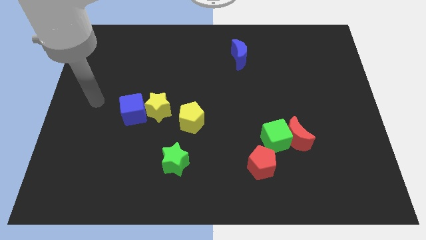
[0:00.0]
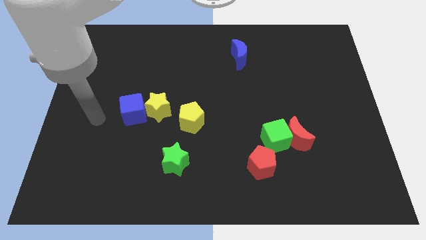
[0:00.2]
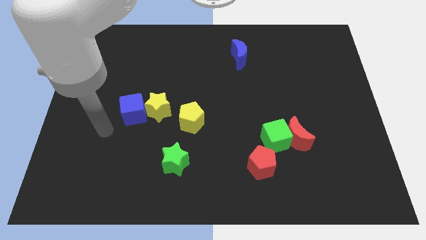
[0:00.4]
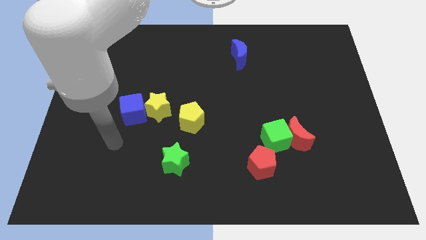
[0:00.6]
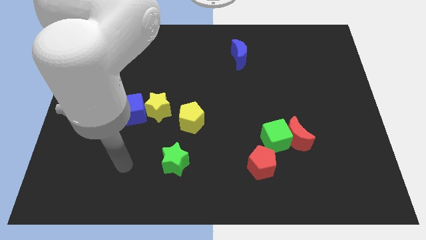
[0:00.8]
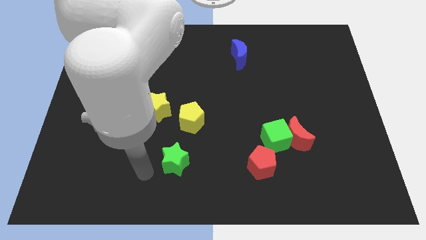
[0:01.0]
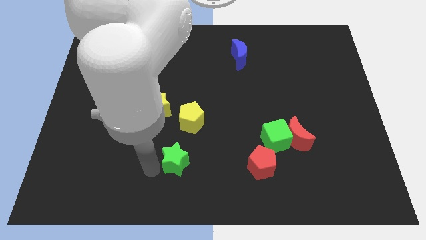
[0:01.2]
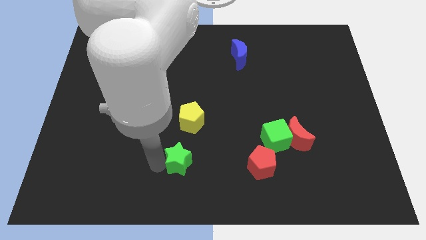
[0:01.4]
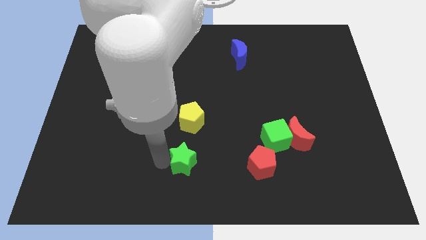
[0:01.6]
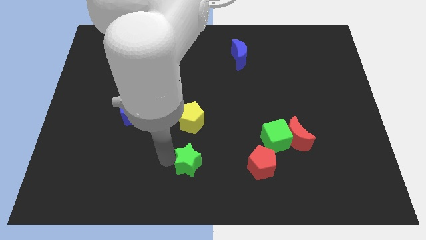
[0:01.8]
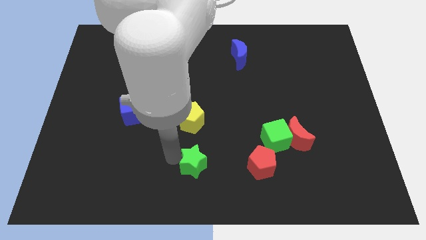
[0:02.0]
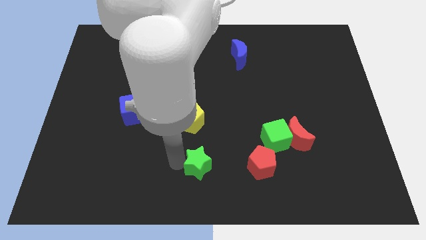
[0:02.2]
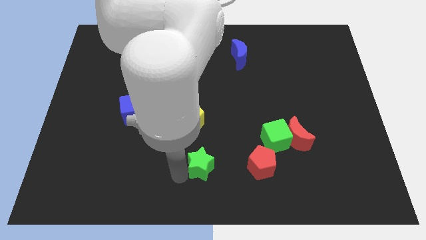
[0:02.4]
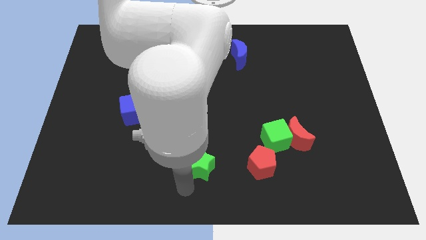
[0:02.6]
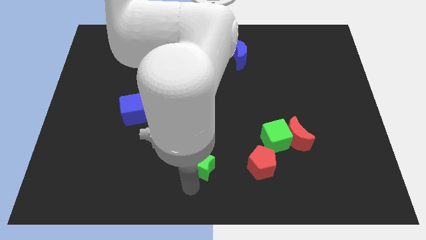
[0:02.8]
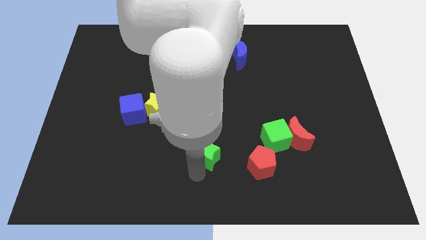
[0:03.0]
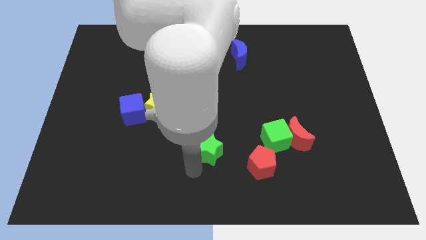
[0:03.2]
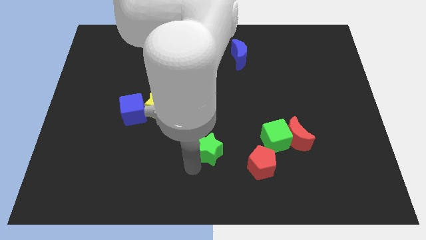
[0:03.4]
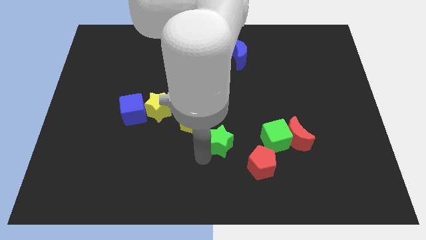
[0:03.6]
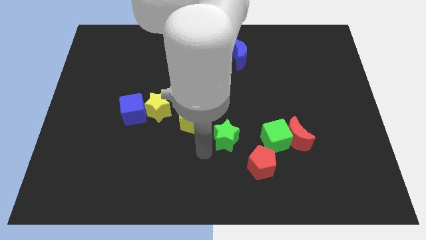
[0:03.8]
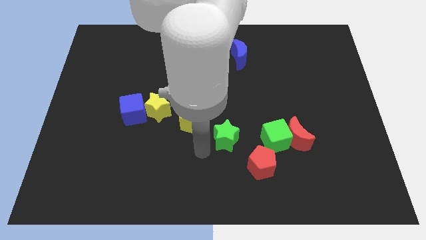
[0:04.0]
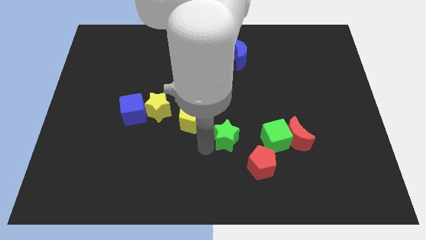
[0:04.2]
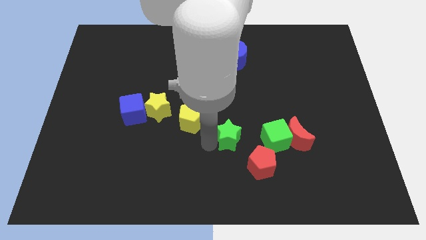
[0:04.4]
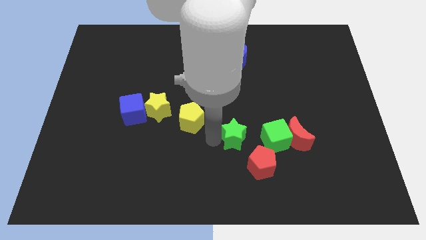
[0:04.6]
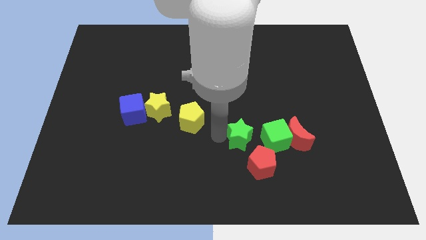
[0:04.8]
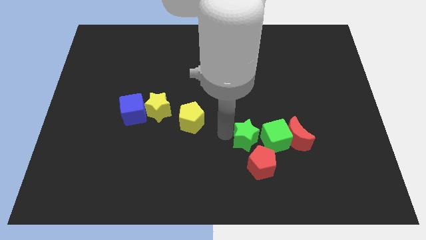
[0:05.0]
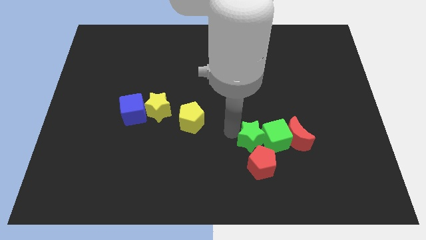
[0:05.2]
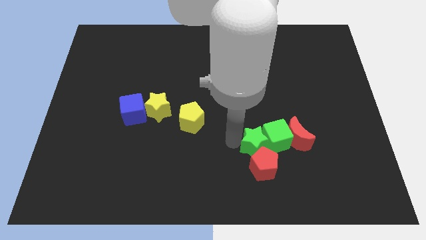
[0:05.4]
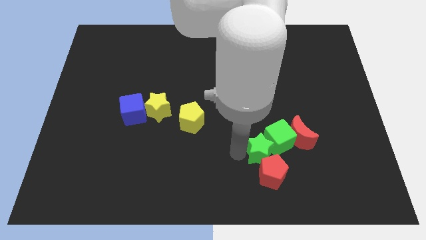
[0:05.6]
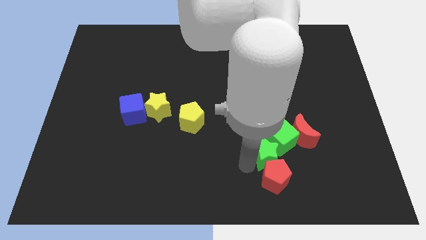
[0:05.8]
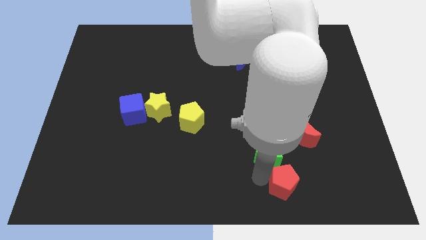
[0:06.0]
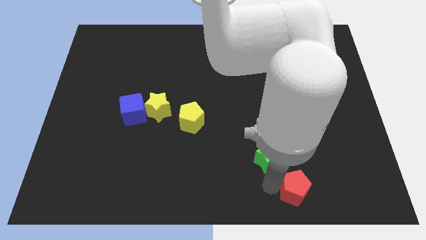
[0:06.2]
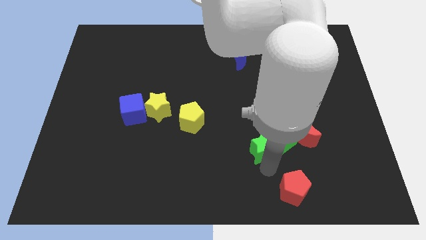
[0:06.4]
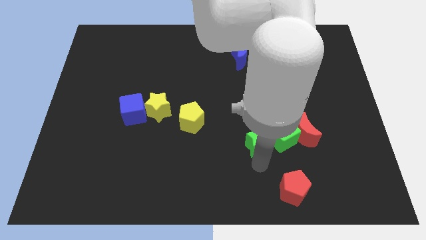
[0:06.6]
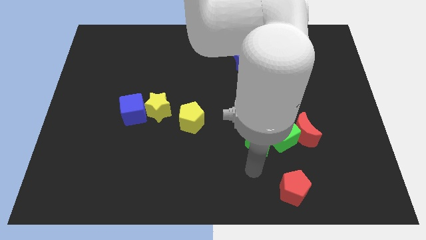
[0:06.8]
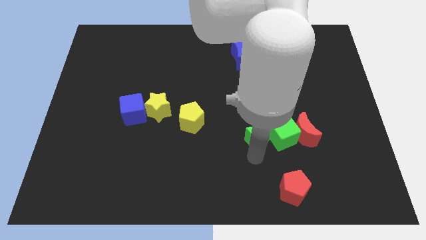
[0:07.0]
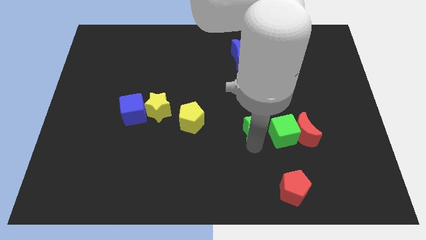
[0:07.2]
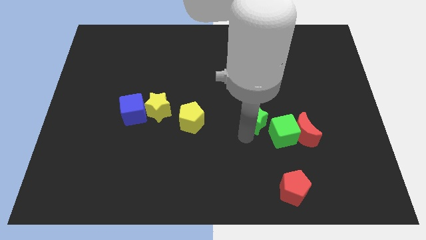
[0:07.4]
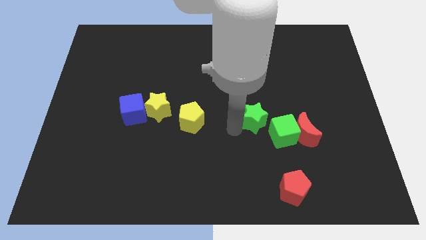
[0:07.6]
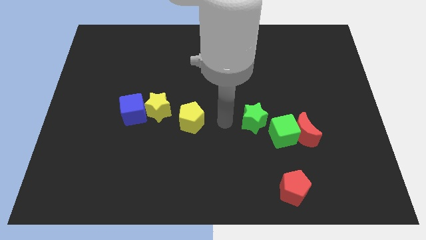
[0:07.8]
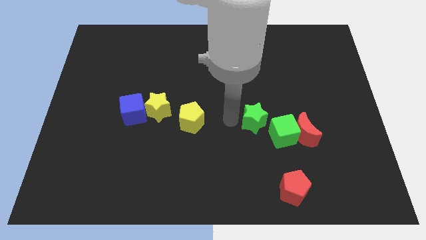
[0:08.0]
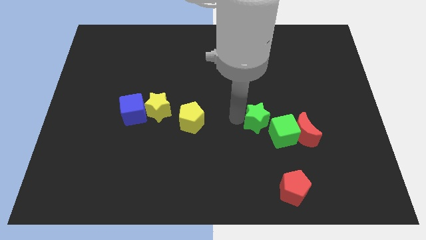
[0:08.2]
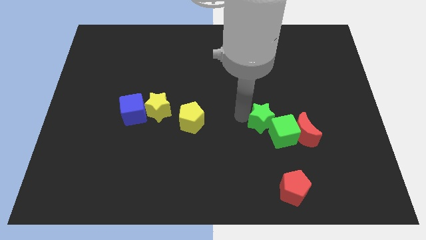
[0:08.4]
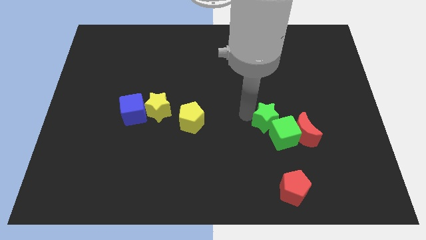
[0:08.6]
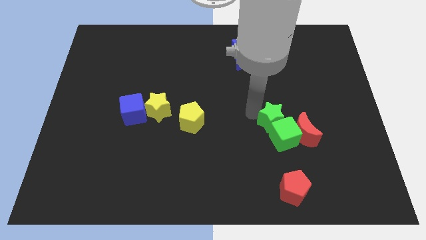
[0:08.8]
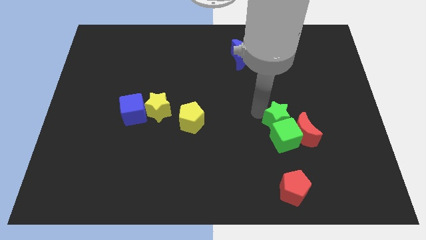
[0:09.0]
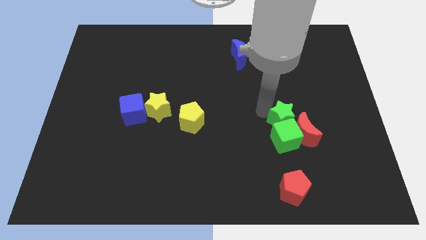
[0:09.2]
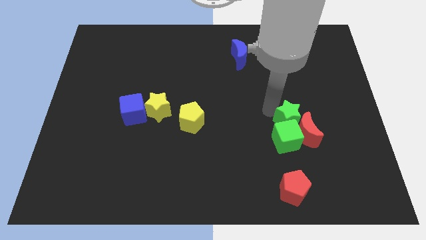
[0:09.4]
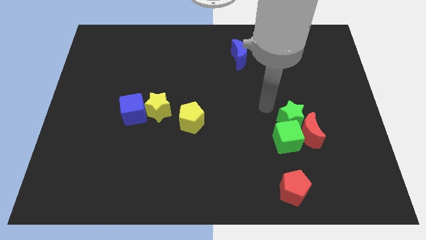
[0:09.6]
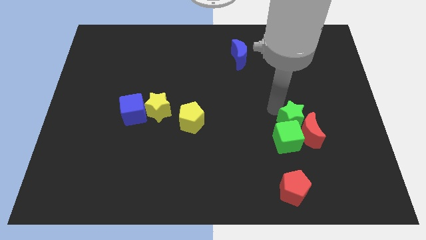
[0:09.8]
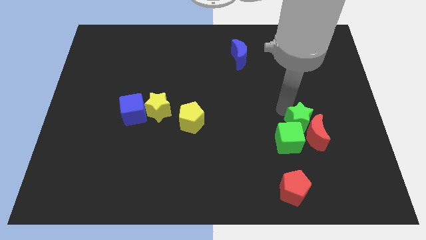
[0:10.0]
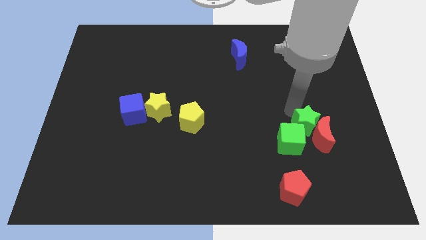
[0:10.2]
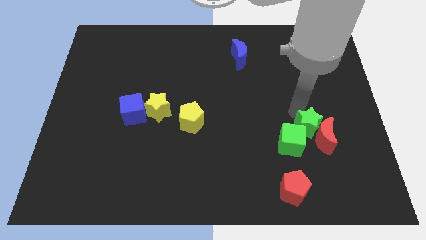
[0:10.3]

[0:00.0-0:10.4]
push the green star just right of the green cube

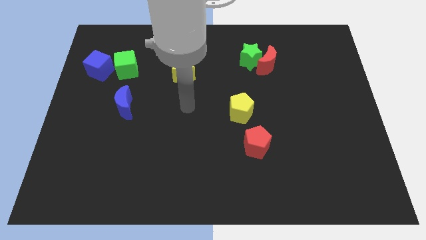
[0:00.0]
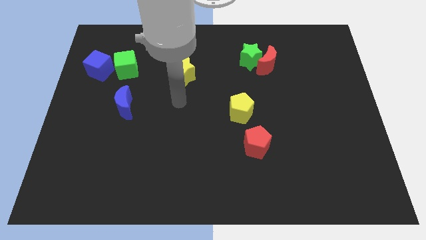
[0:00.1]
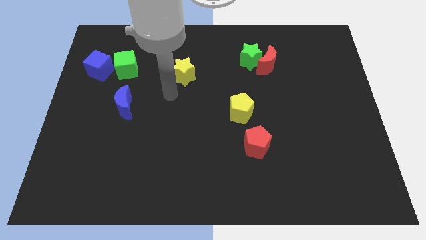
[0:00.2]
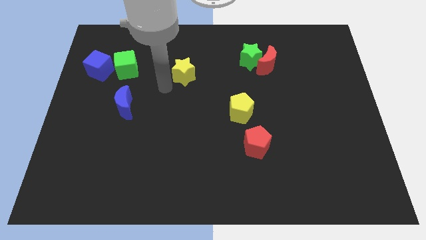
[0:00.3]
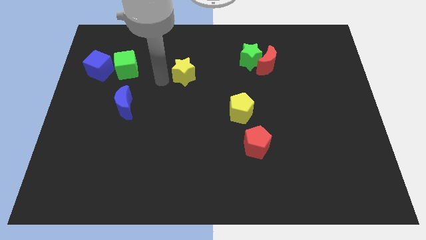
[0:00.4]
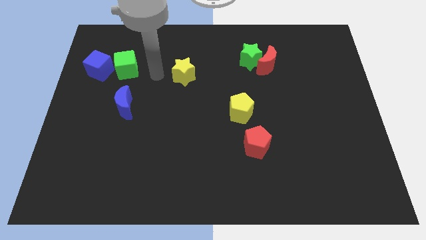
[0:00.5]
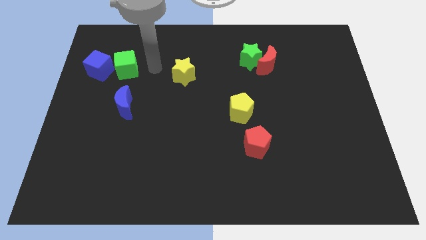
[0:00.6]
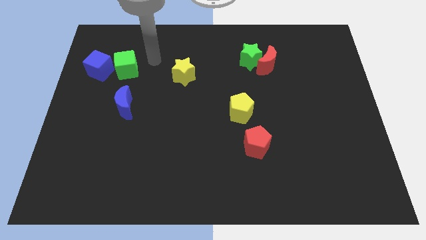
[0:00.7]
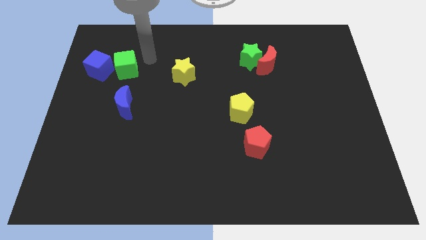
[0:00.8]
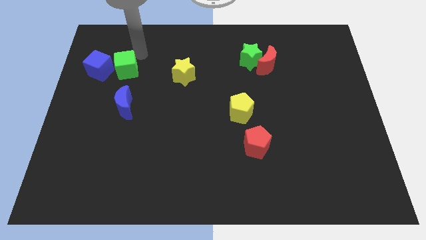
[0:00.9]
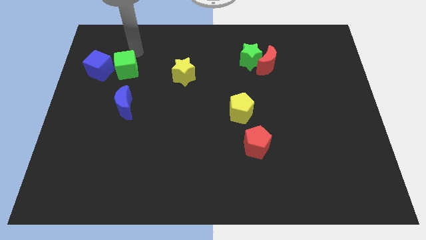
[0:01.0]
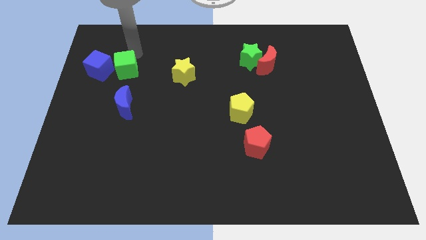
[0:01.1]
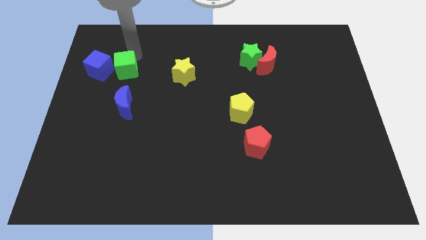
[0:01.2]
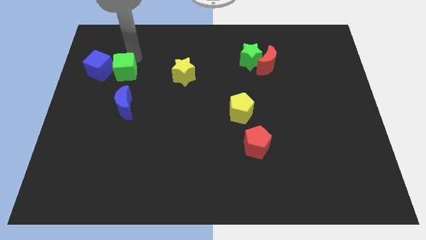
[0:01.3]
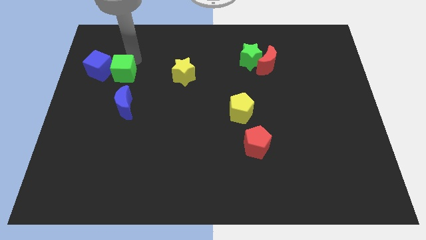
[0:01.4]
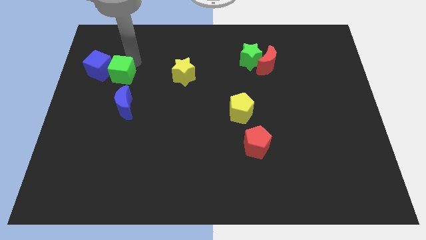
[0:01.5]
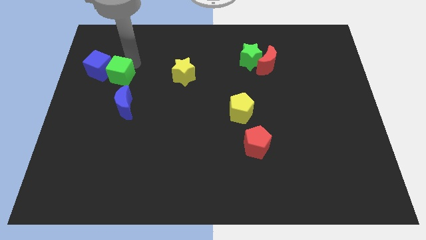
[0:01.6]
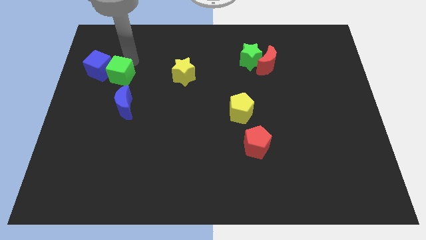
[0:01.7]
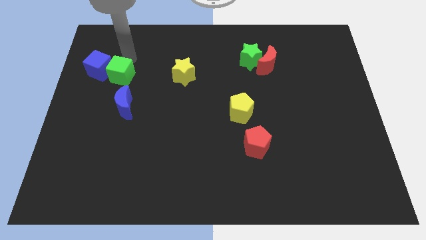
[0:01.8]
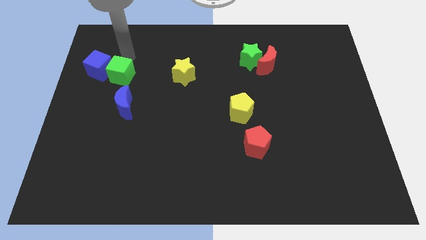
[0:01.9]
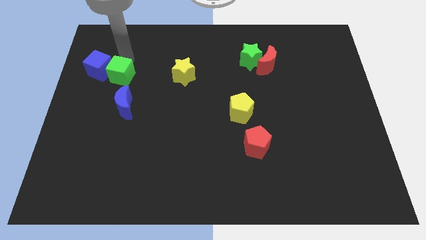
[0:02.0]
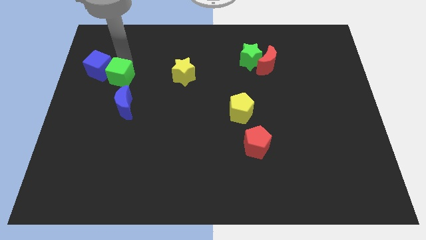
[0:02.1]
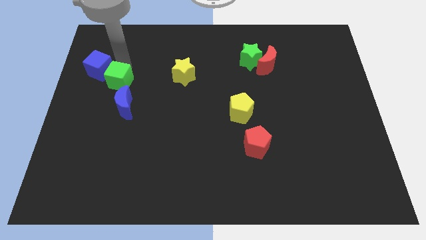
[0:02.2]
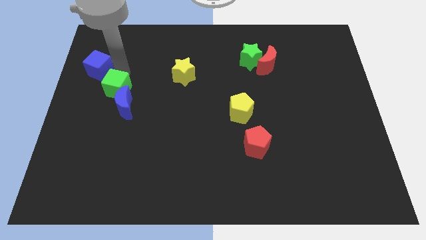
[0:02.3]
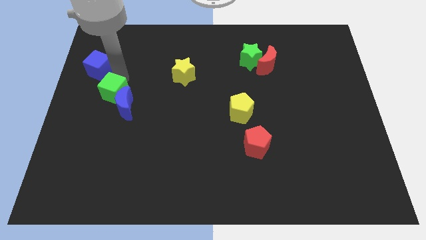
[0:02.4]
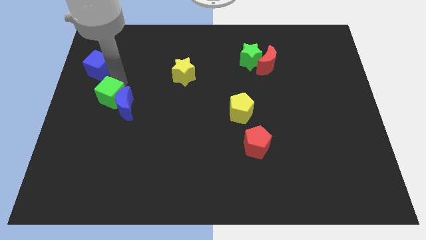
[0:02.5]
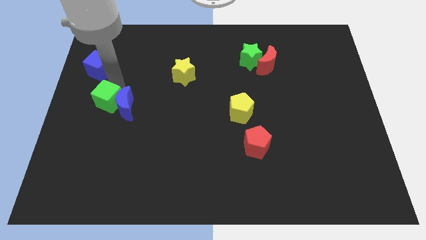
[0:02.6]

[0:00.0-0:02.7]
move the green cube to the bottom left of the blue moon
